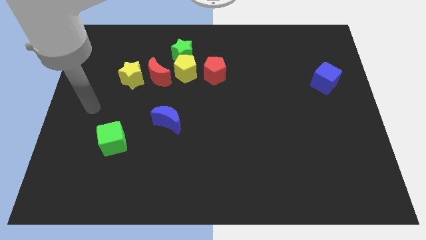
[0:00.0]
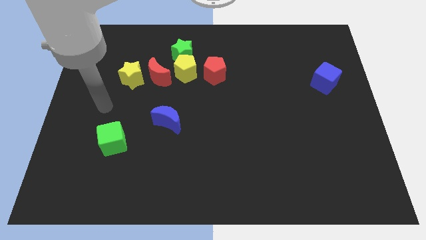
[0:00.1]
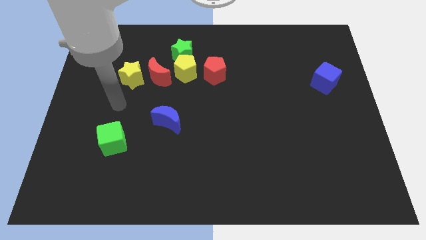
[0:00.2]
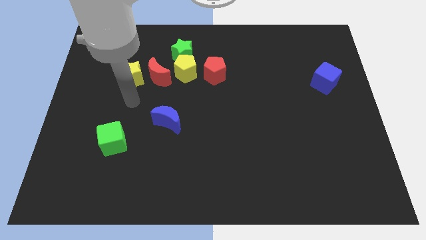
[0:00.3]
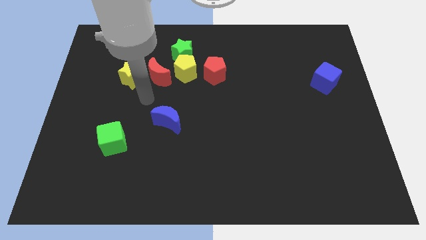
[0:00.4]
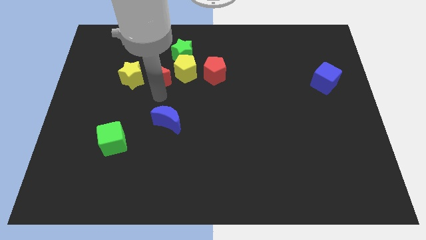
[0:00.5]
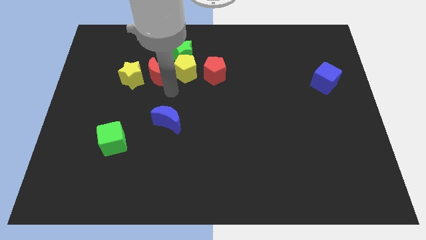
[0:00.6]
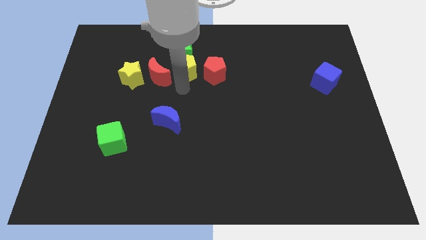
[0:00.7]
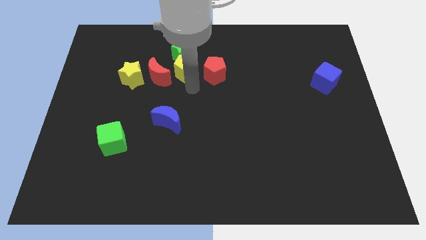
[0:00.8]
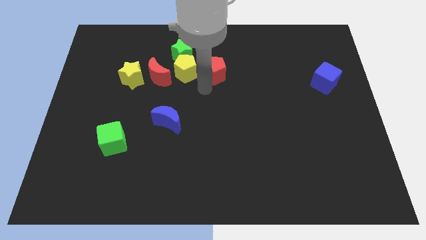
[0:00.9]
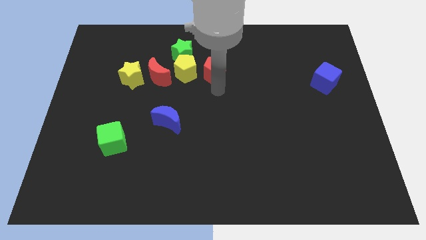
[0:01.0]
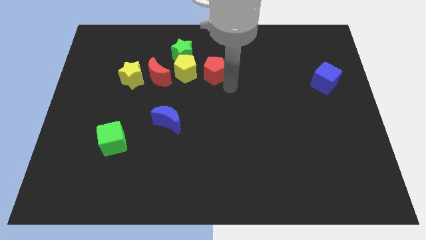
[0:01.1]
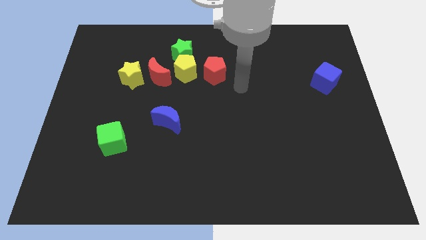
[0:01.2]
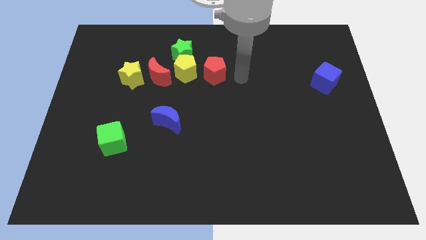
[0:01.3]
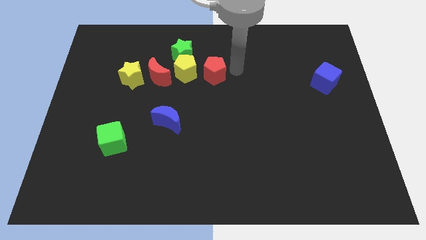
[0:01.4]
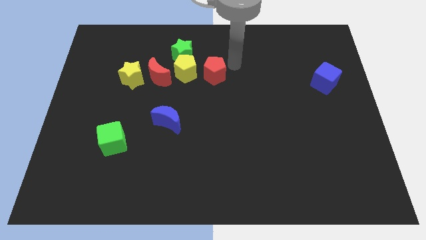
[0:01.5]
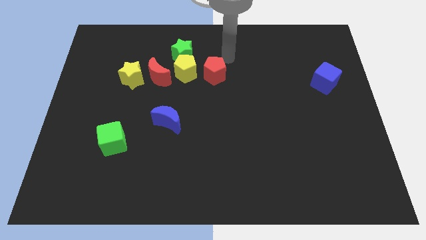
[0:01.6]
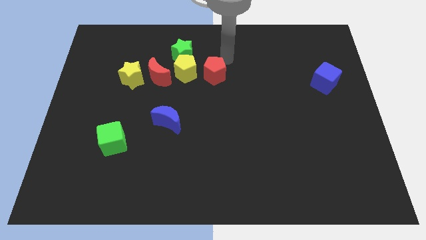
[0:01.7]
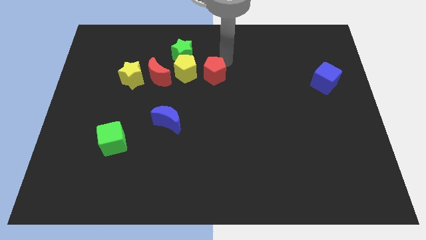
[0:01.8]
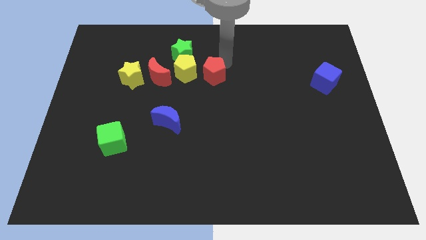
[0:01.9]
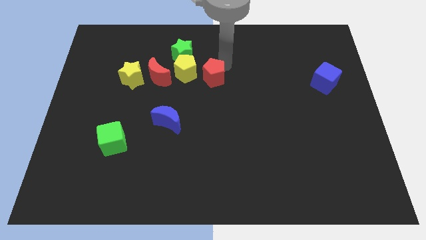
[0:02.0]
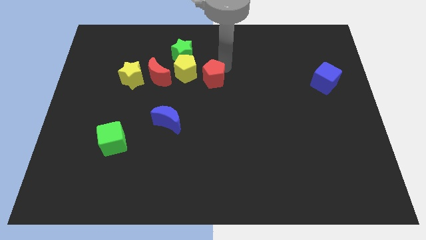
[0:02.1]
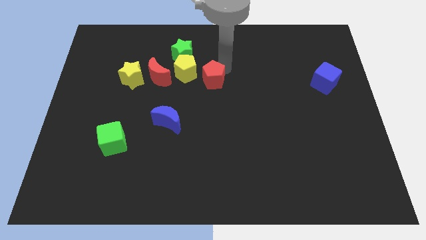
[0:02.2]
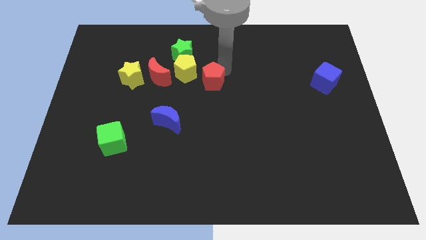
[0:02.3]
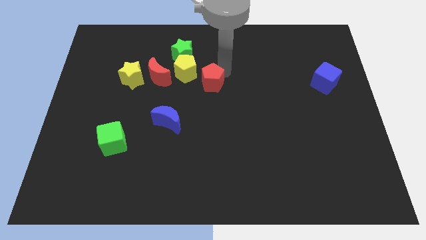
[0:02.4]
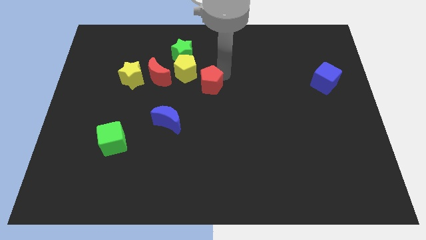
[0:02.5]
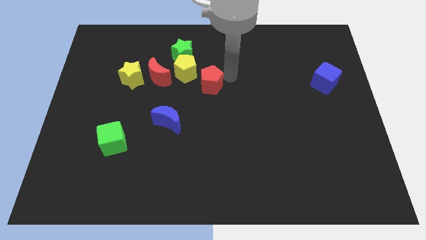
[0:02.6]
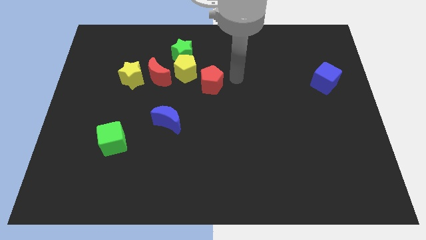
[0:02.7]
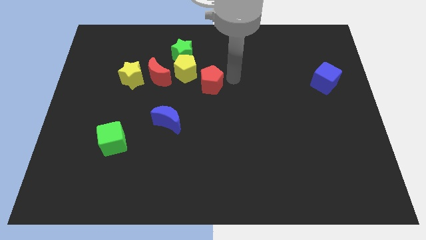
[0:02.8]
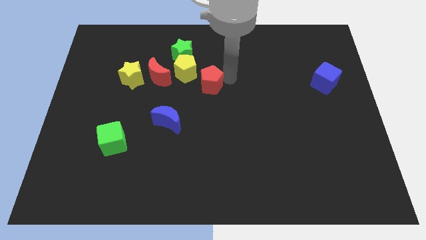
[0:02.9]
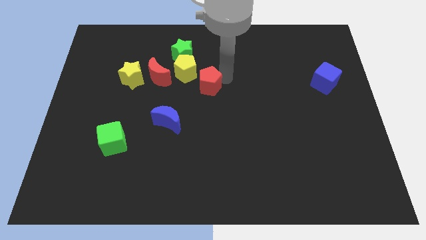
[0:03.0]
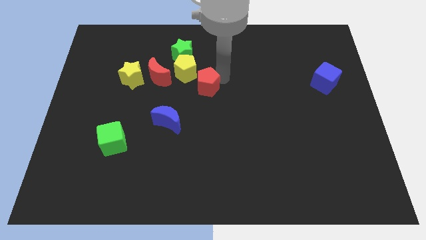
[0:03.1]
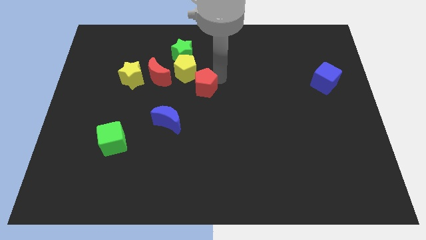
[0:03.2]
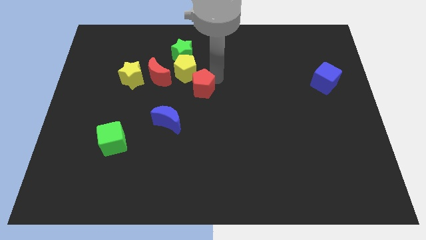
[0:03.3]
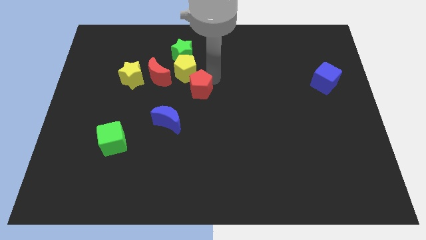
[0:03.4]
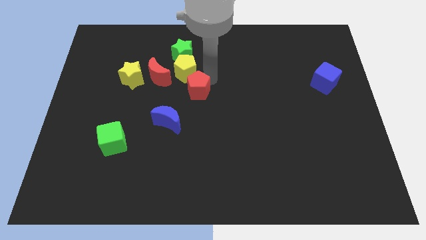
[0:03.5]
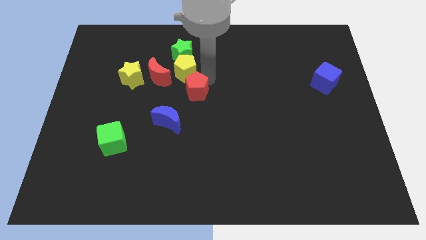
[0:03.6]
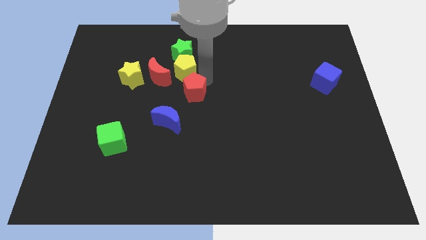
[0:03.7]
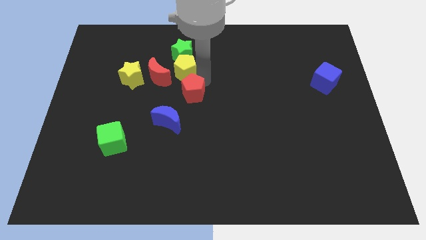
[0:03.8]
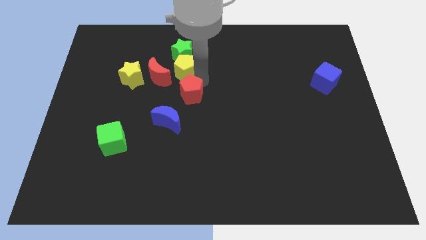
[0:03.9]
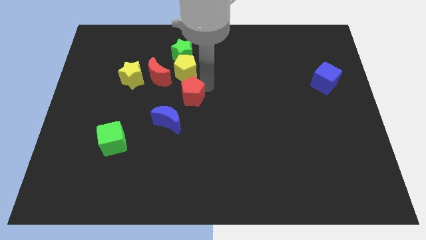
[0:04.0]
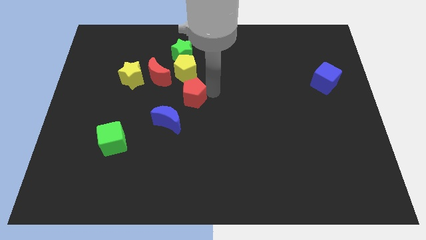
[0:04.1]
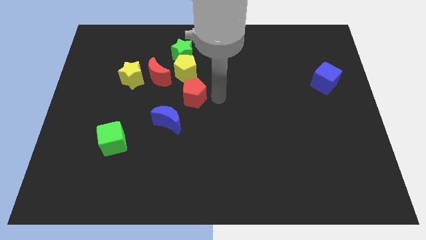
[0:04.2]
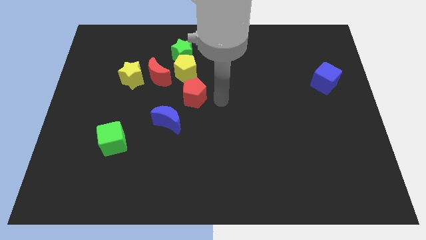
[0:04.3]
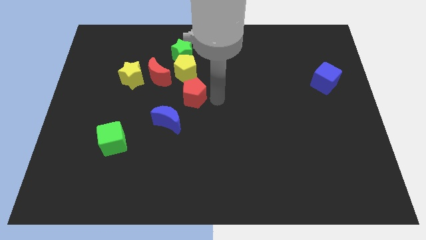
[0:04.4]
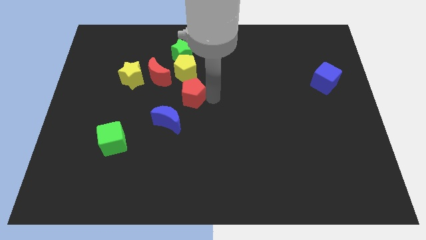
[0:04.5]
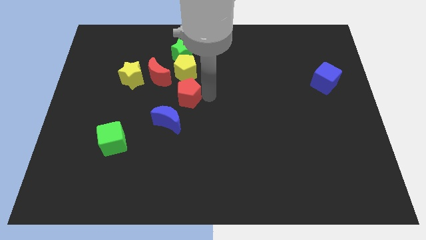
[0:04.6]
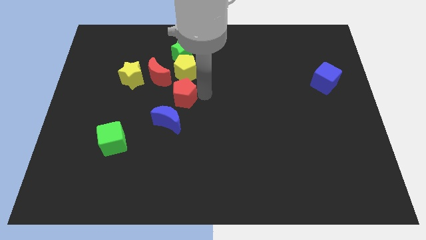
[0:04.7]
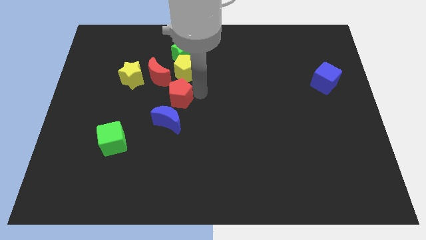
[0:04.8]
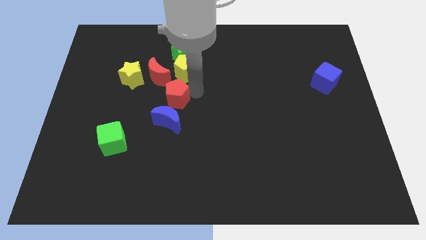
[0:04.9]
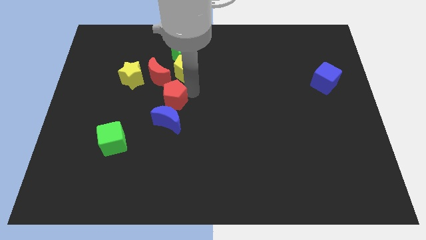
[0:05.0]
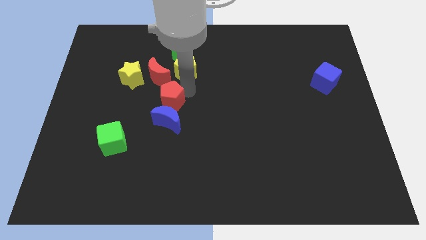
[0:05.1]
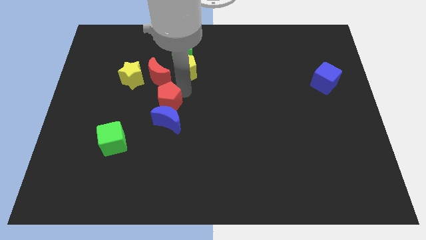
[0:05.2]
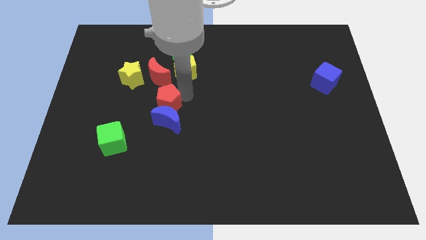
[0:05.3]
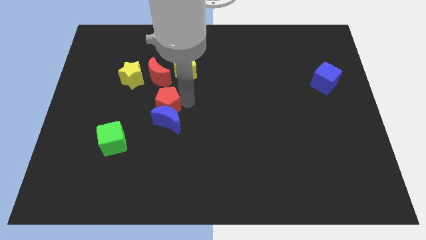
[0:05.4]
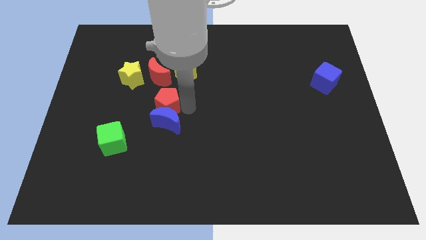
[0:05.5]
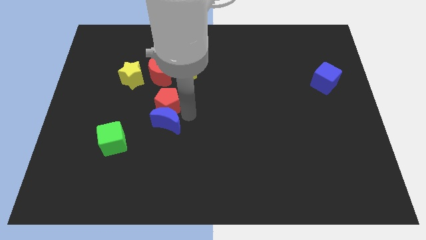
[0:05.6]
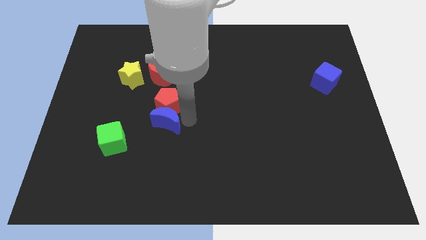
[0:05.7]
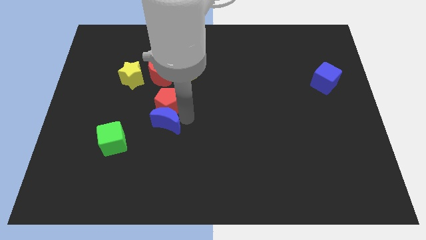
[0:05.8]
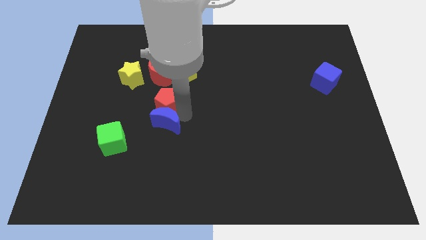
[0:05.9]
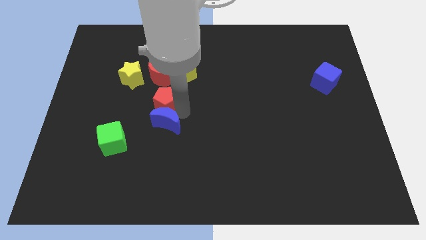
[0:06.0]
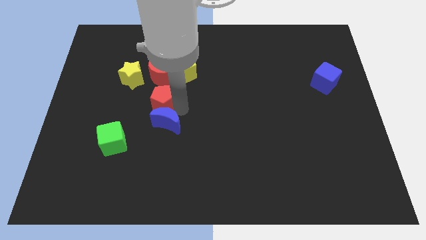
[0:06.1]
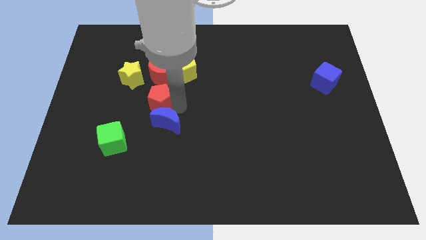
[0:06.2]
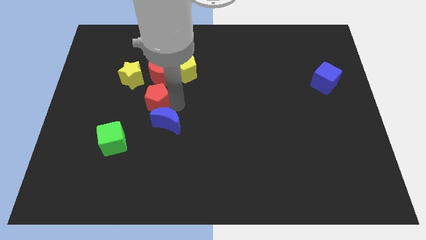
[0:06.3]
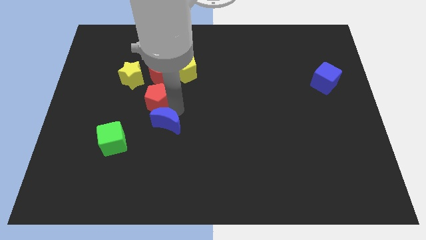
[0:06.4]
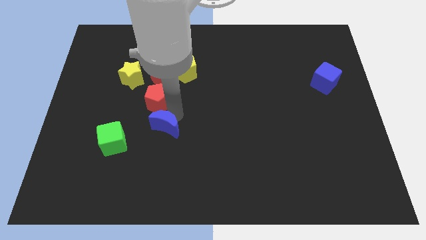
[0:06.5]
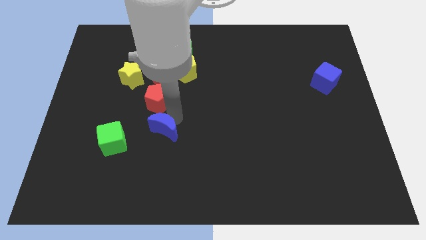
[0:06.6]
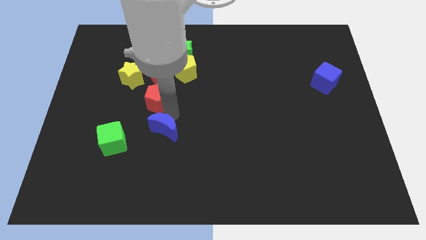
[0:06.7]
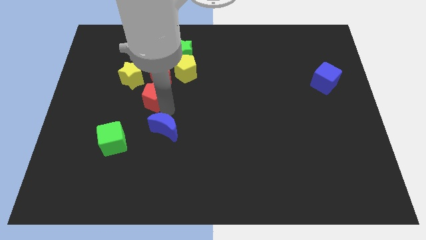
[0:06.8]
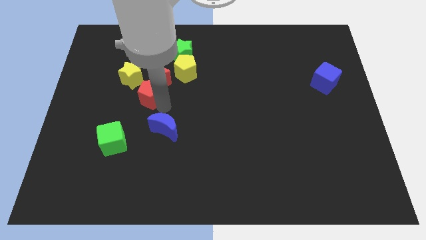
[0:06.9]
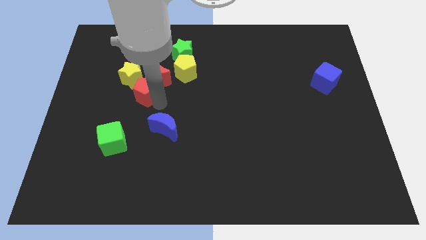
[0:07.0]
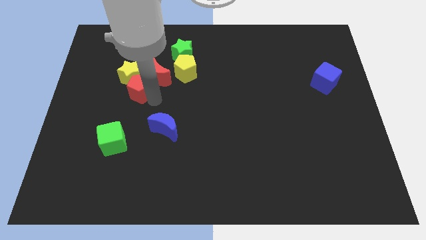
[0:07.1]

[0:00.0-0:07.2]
move the red pentagon next to the yellow star
